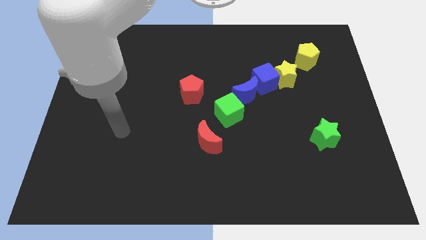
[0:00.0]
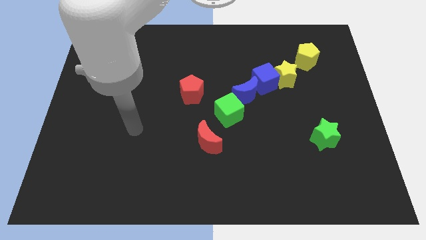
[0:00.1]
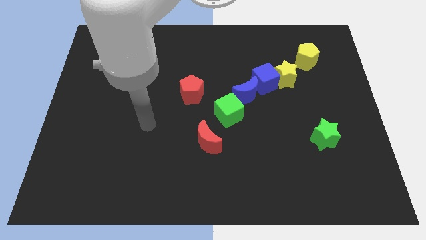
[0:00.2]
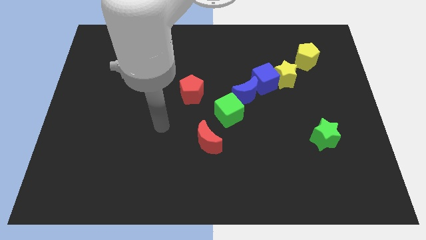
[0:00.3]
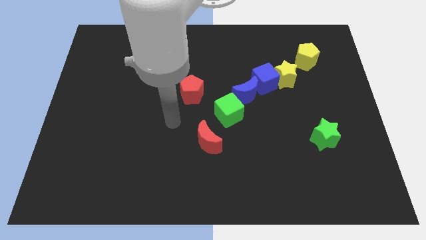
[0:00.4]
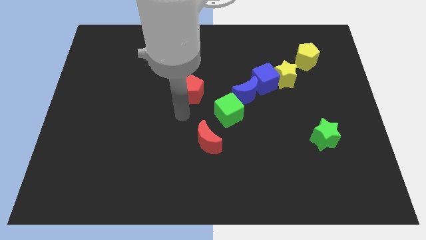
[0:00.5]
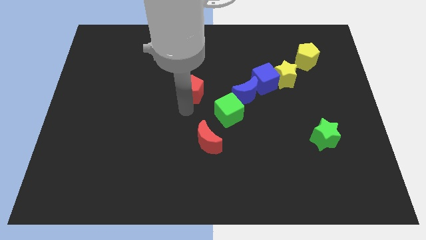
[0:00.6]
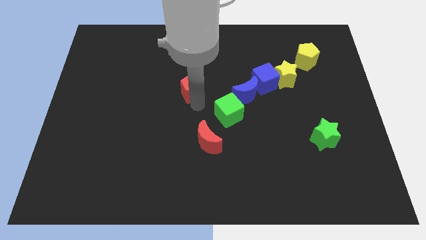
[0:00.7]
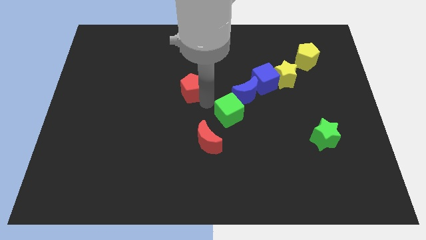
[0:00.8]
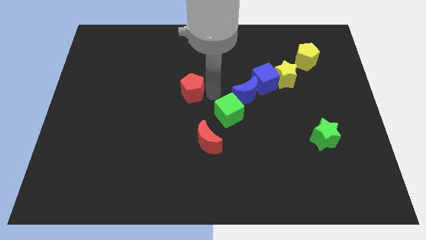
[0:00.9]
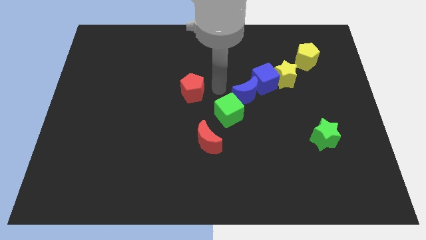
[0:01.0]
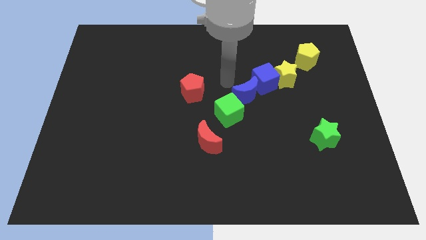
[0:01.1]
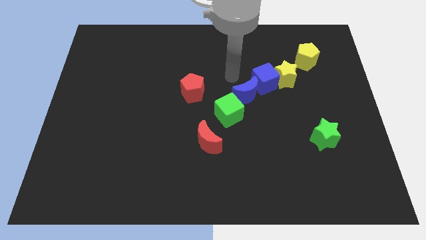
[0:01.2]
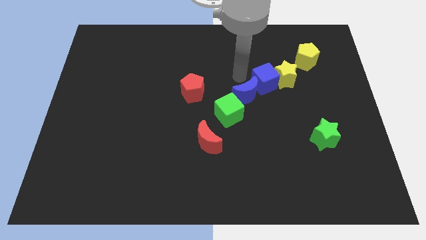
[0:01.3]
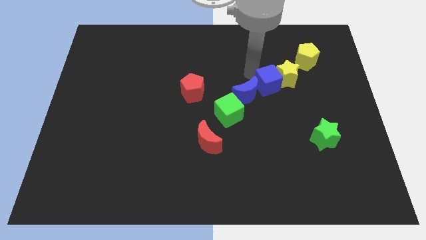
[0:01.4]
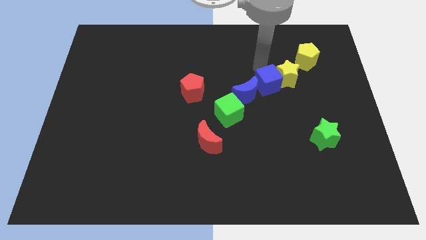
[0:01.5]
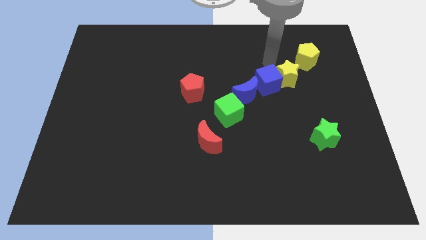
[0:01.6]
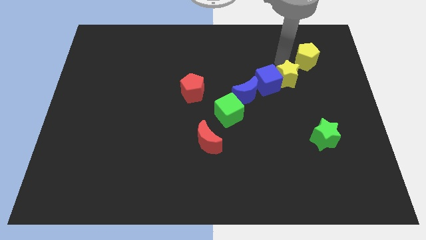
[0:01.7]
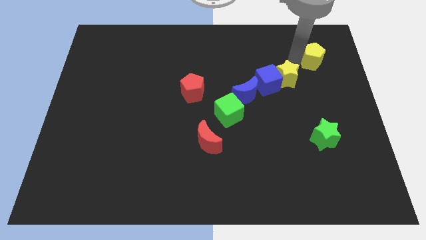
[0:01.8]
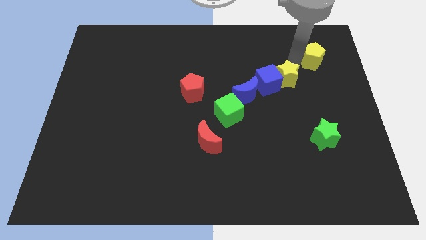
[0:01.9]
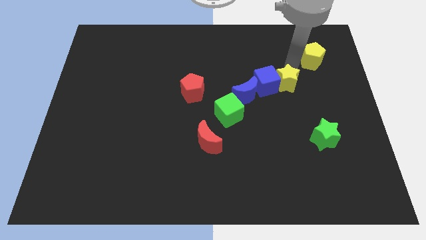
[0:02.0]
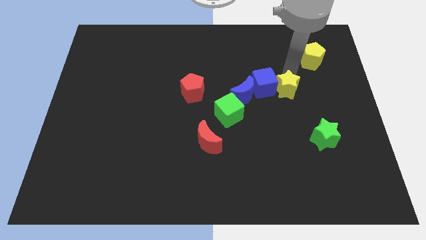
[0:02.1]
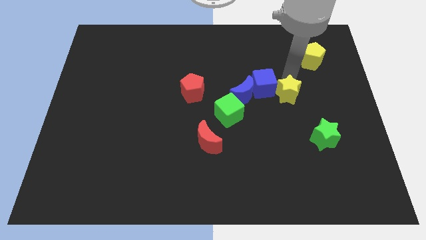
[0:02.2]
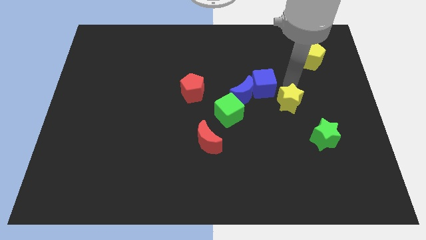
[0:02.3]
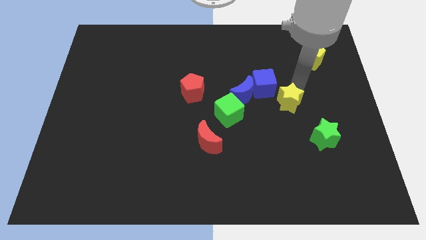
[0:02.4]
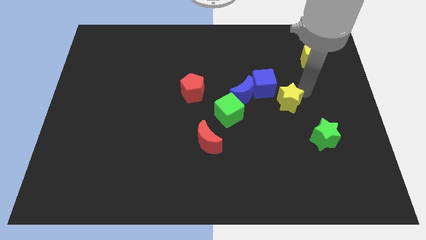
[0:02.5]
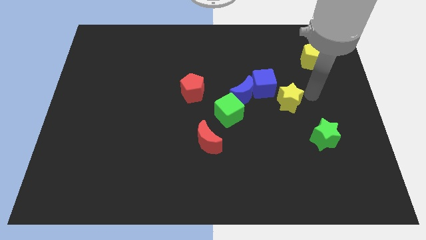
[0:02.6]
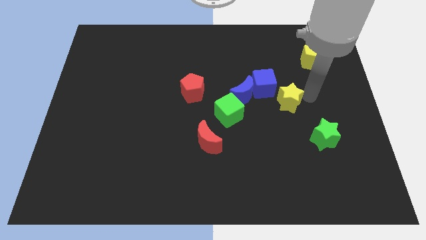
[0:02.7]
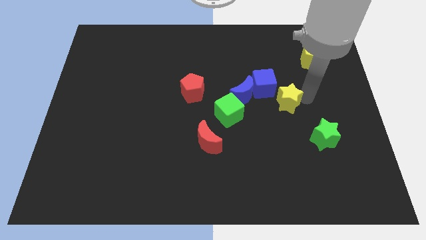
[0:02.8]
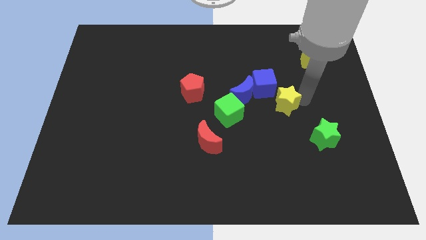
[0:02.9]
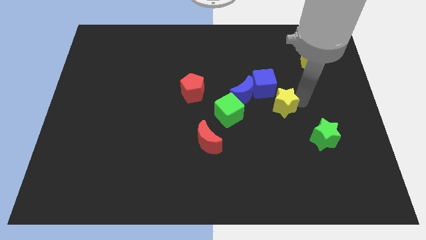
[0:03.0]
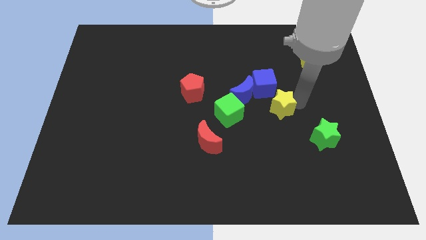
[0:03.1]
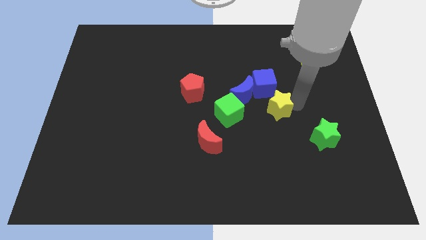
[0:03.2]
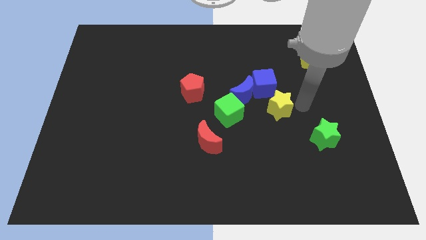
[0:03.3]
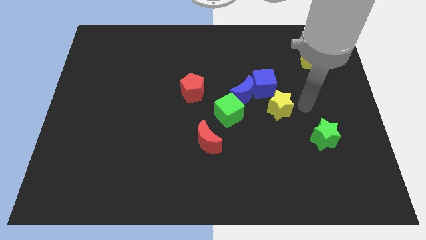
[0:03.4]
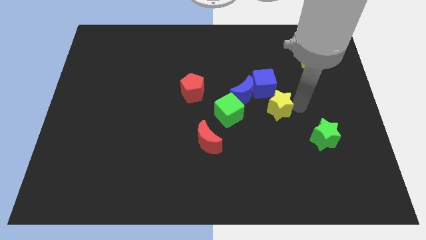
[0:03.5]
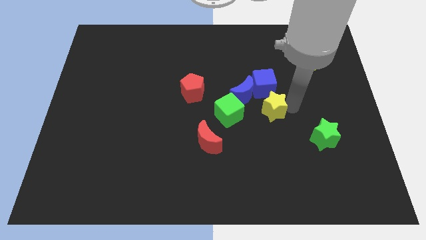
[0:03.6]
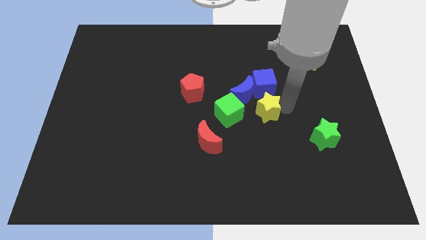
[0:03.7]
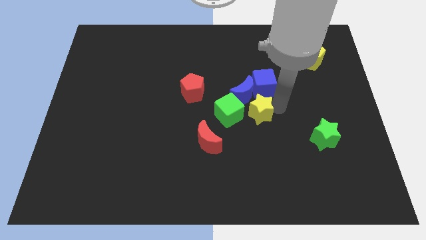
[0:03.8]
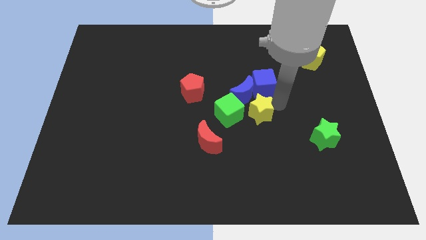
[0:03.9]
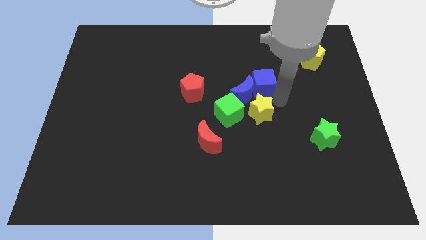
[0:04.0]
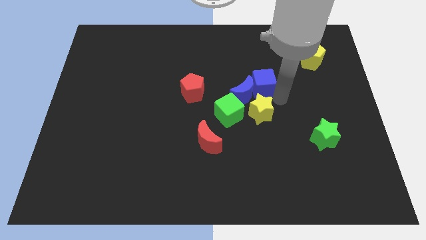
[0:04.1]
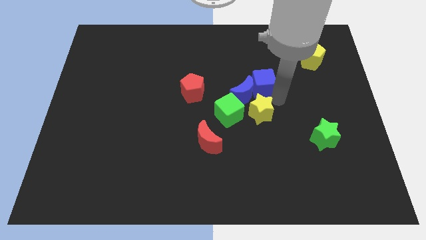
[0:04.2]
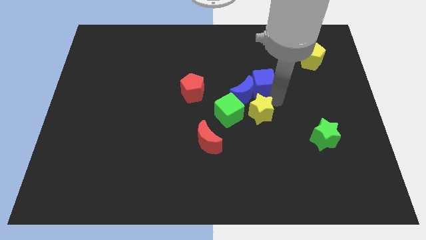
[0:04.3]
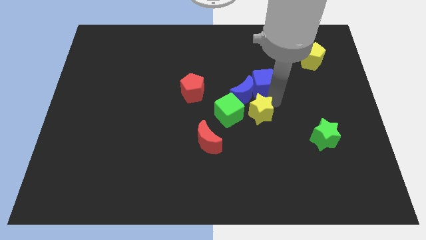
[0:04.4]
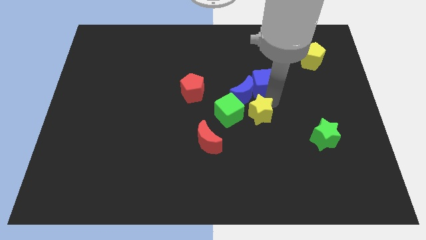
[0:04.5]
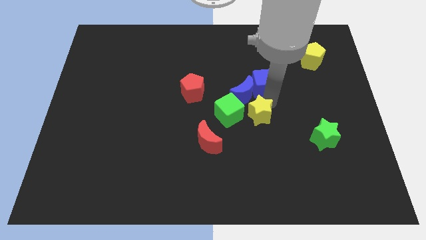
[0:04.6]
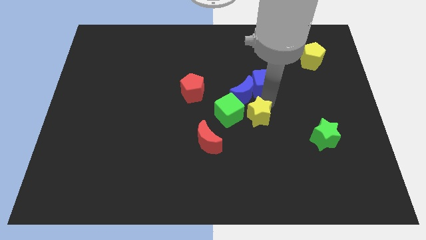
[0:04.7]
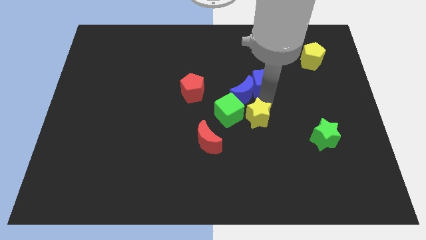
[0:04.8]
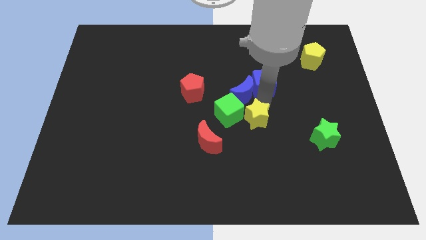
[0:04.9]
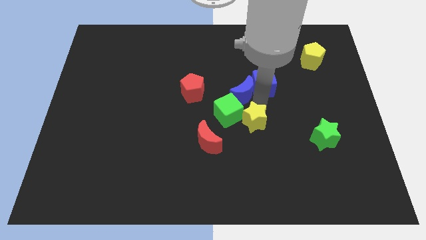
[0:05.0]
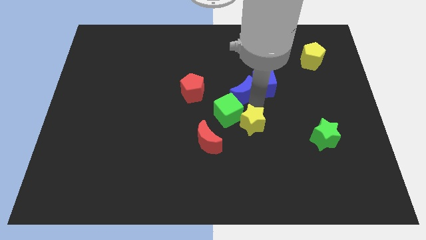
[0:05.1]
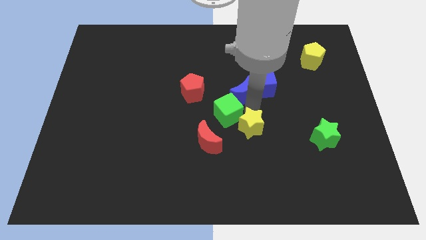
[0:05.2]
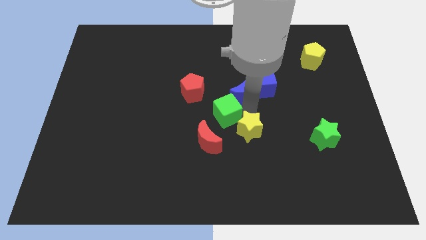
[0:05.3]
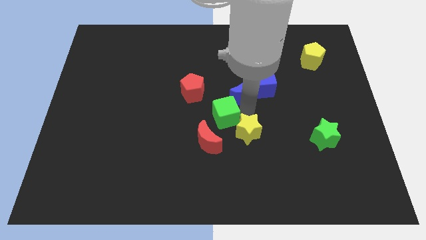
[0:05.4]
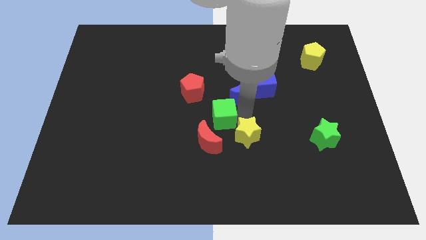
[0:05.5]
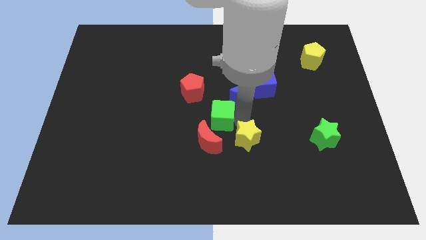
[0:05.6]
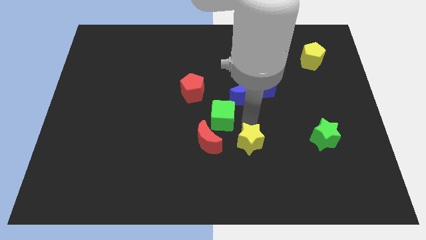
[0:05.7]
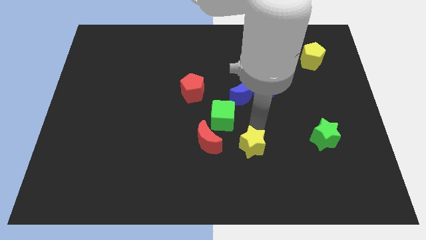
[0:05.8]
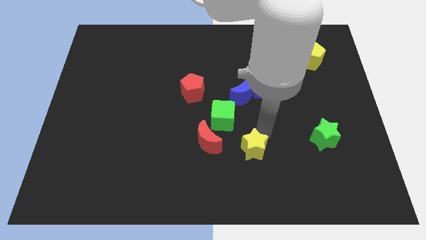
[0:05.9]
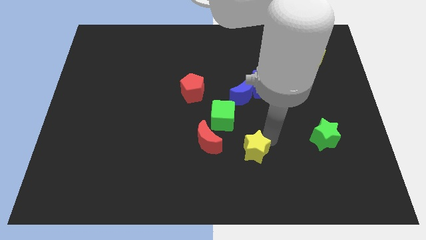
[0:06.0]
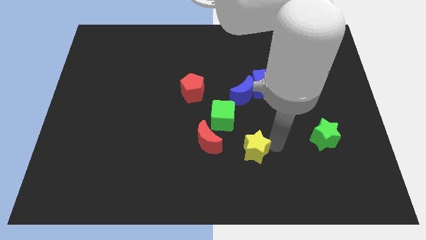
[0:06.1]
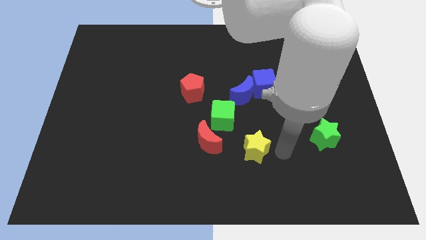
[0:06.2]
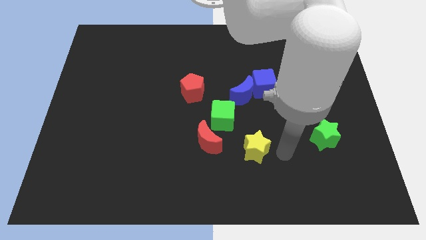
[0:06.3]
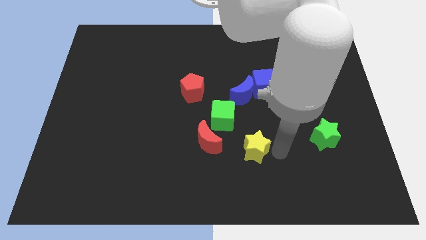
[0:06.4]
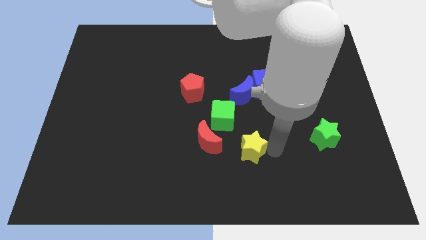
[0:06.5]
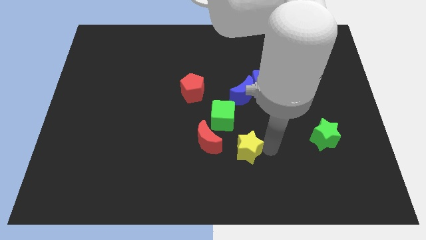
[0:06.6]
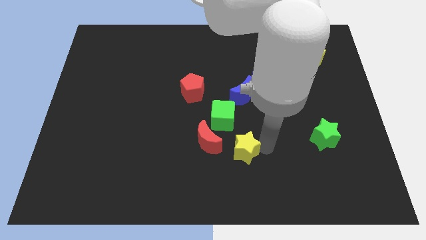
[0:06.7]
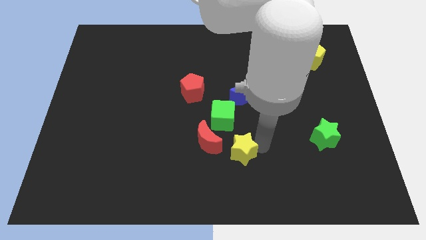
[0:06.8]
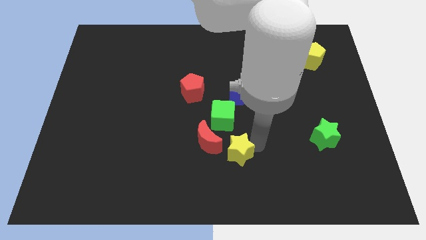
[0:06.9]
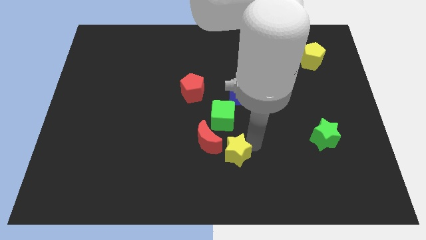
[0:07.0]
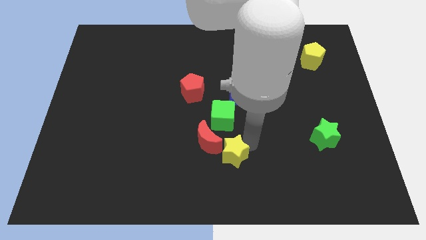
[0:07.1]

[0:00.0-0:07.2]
slide the yellow star close to the red moon

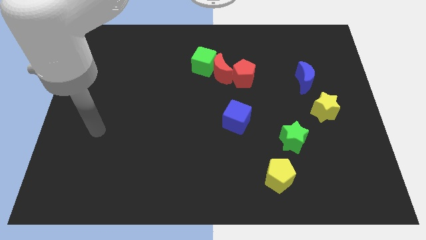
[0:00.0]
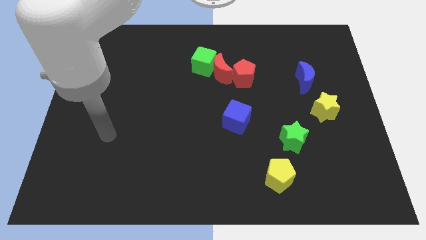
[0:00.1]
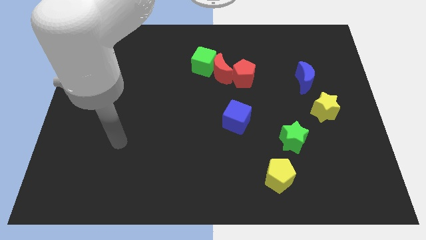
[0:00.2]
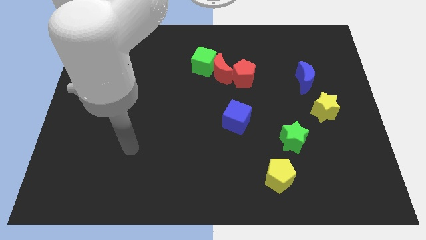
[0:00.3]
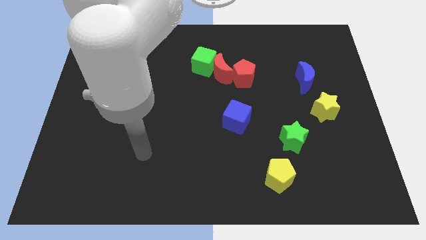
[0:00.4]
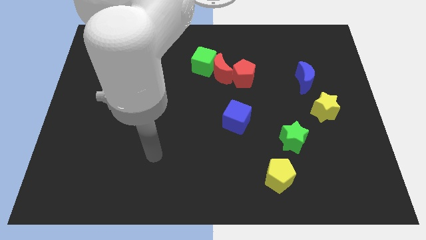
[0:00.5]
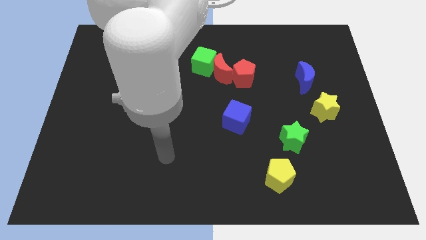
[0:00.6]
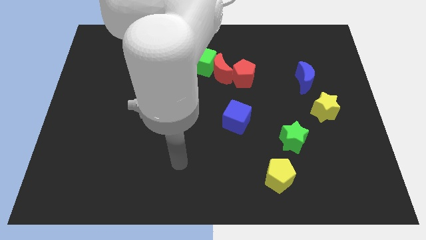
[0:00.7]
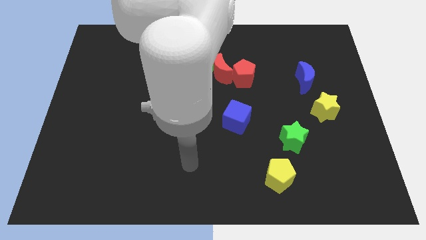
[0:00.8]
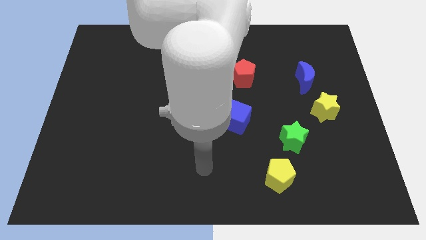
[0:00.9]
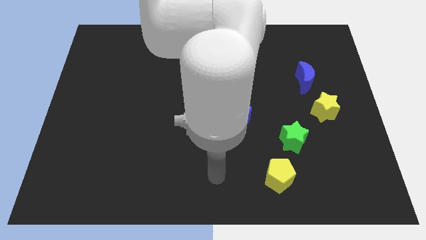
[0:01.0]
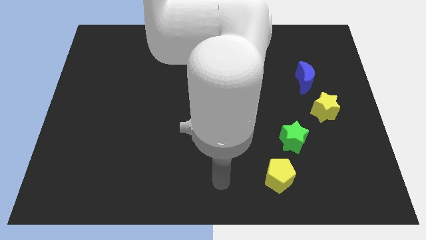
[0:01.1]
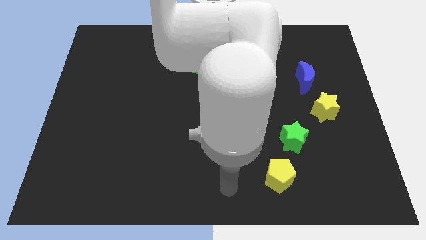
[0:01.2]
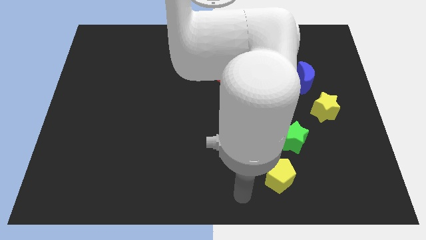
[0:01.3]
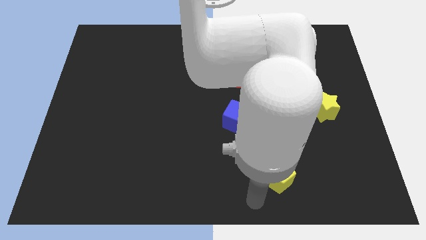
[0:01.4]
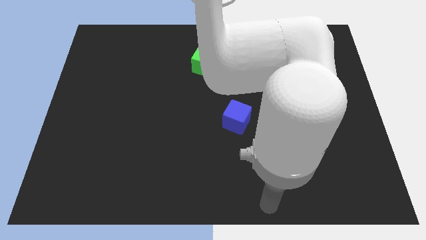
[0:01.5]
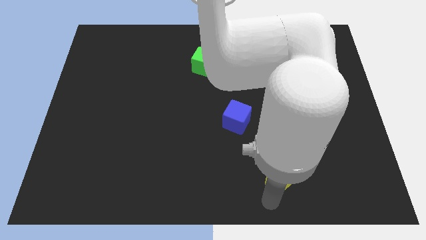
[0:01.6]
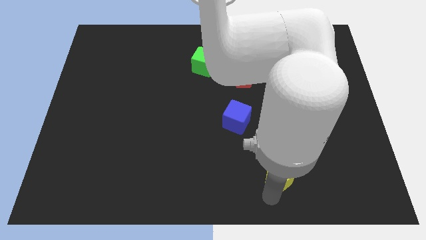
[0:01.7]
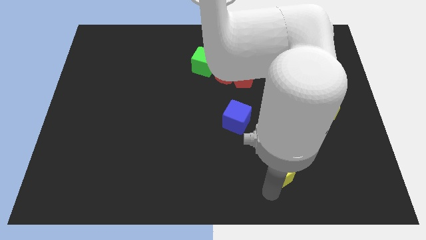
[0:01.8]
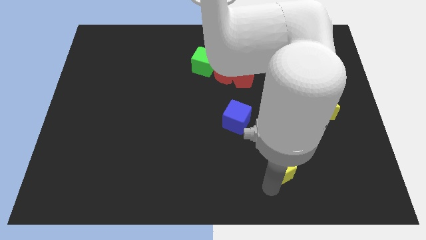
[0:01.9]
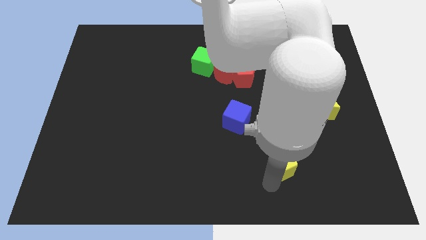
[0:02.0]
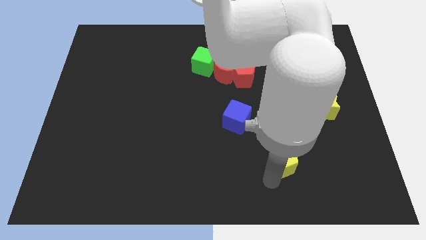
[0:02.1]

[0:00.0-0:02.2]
put the yellow pentagon next to the green star
